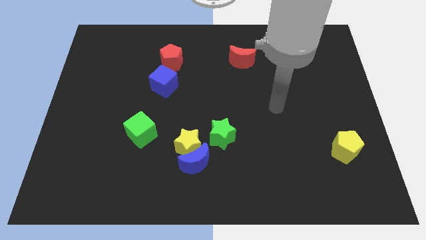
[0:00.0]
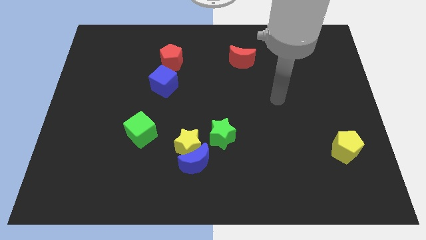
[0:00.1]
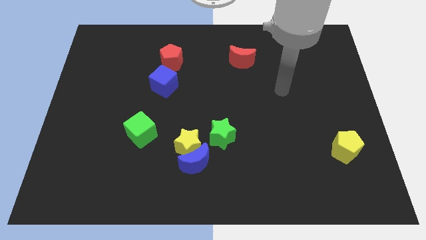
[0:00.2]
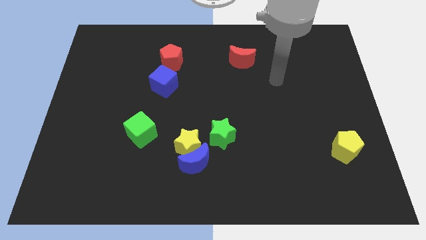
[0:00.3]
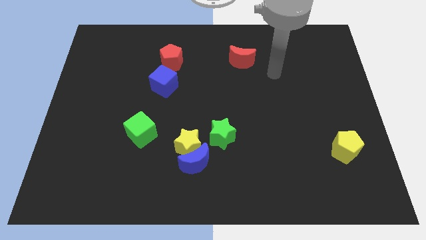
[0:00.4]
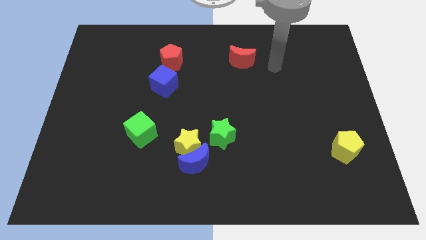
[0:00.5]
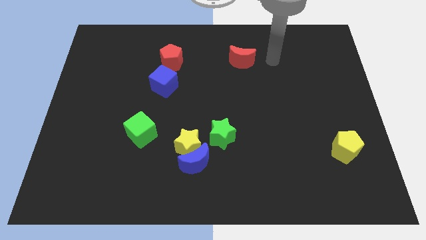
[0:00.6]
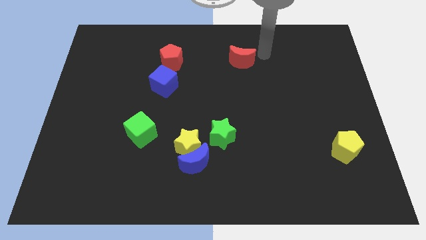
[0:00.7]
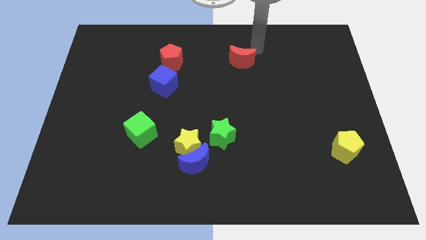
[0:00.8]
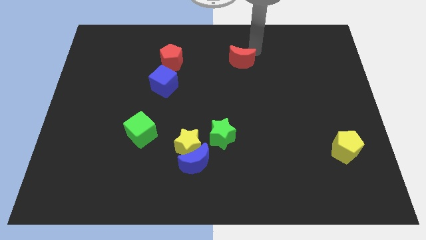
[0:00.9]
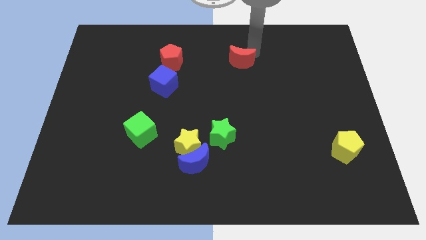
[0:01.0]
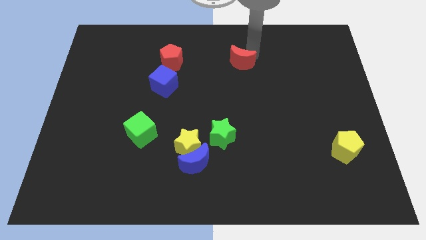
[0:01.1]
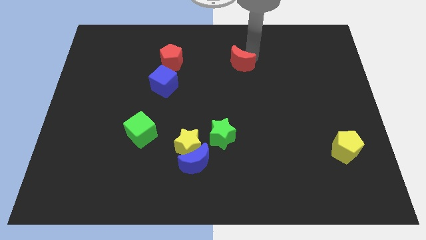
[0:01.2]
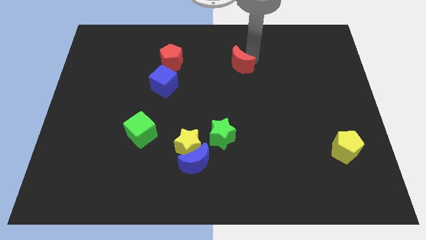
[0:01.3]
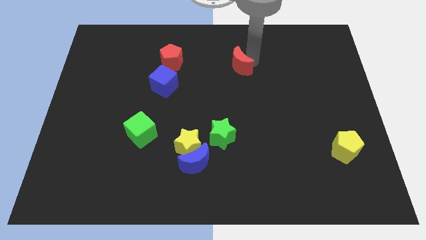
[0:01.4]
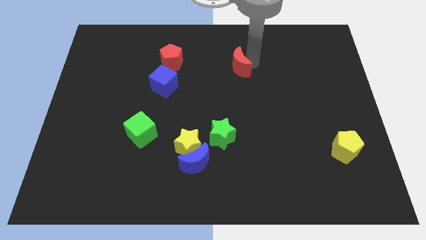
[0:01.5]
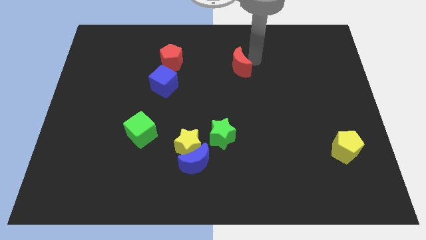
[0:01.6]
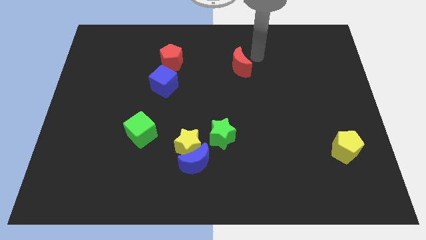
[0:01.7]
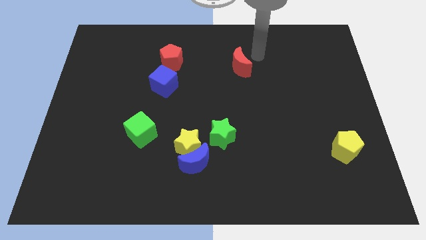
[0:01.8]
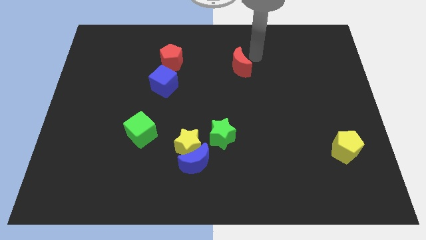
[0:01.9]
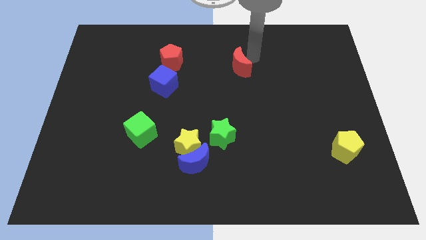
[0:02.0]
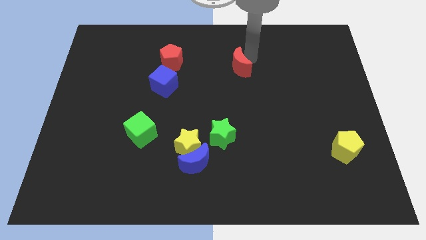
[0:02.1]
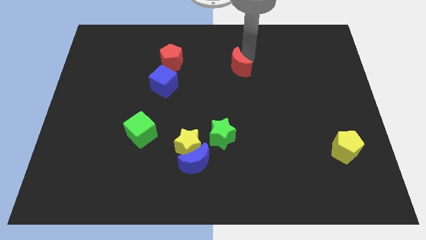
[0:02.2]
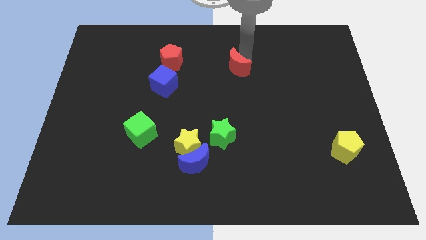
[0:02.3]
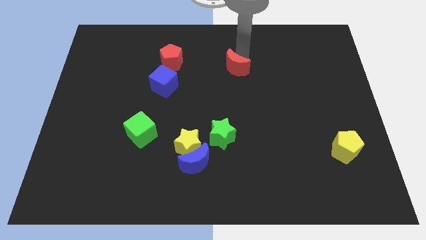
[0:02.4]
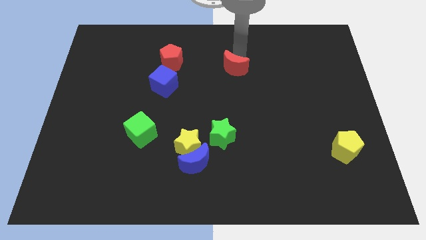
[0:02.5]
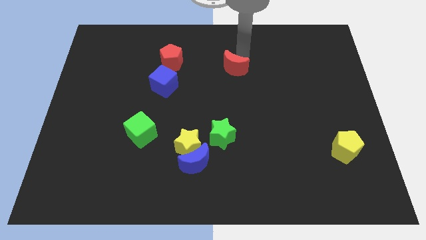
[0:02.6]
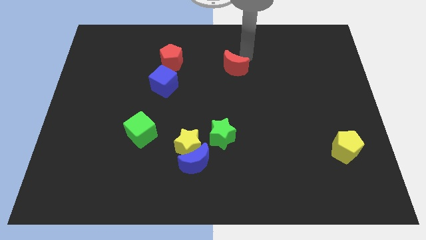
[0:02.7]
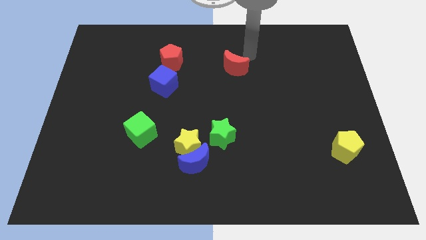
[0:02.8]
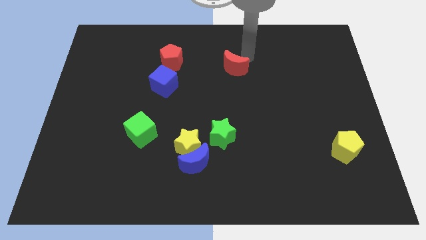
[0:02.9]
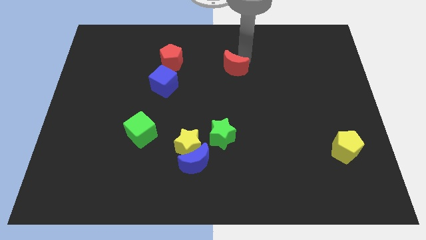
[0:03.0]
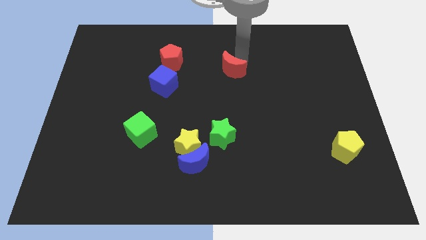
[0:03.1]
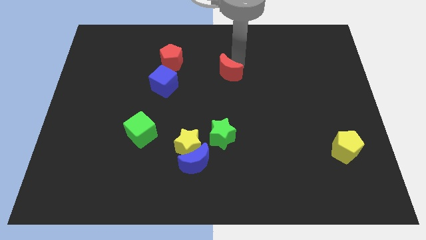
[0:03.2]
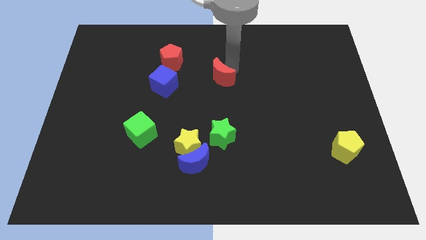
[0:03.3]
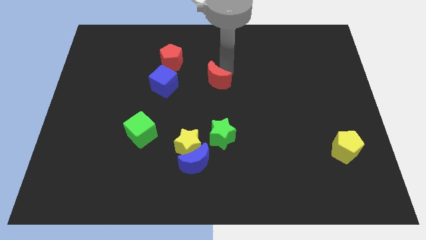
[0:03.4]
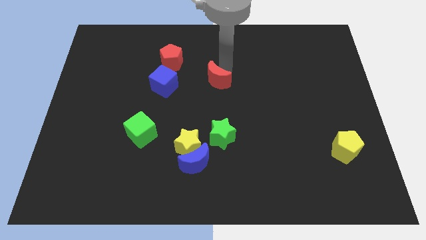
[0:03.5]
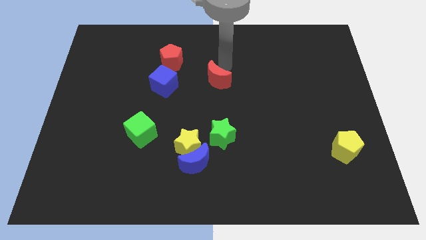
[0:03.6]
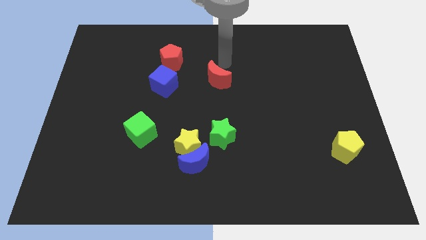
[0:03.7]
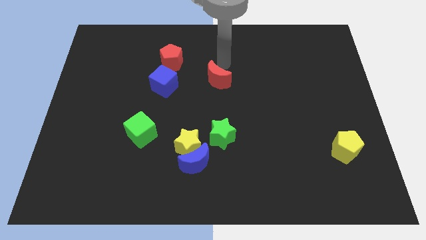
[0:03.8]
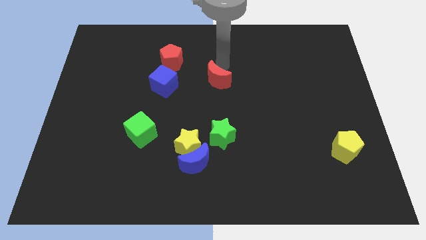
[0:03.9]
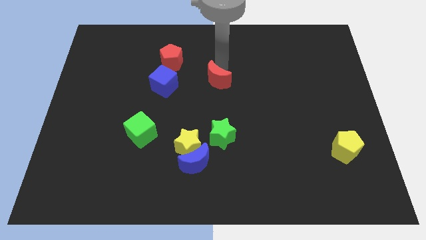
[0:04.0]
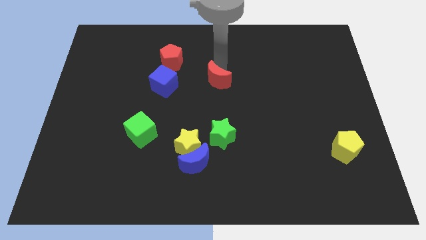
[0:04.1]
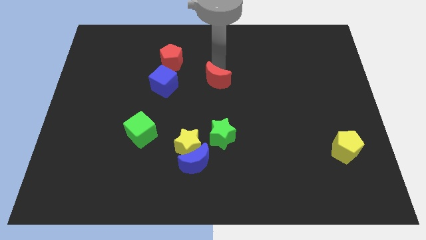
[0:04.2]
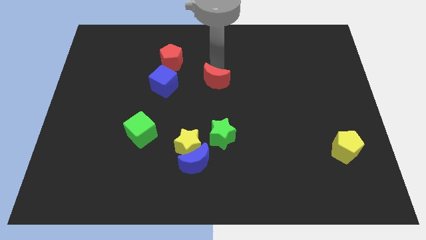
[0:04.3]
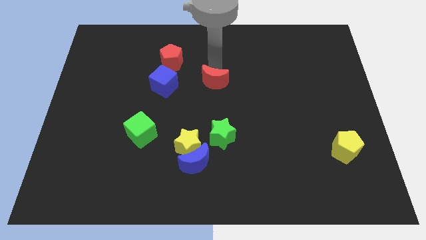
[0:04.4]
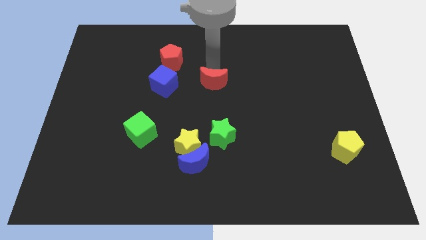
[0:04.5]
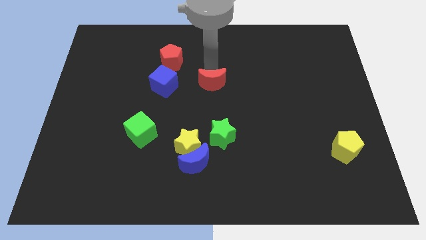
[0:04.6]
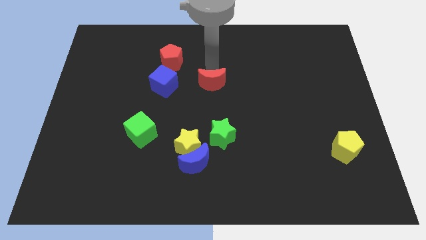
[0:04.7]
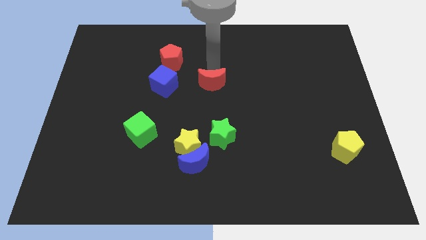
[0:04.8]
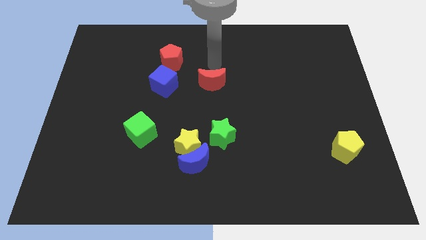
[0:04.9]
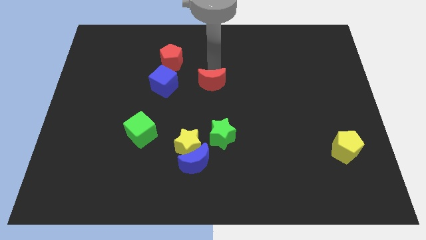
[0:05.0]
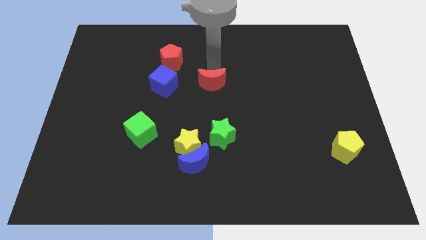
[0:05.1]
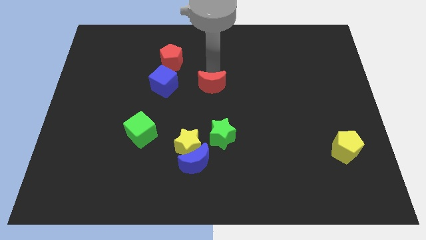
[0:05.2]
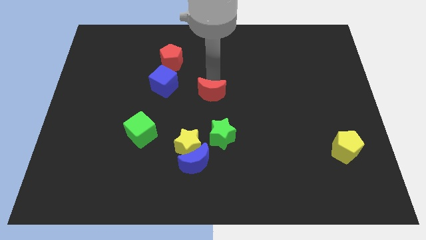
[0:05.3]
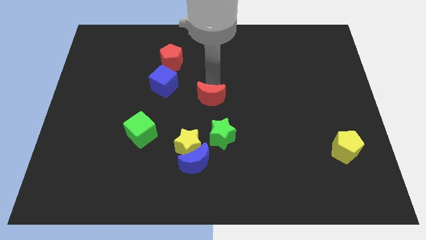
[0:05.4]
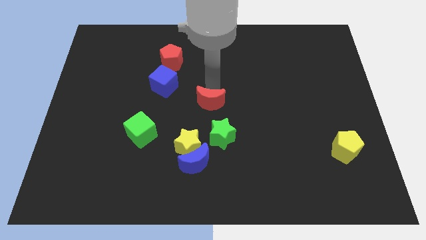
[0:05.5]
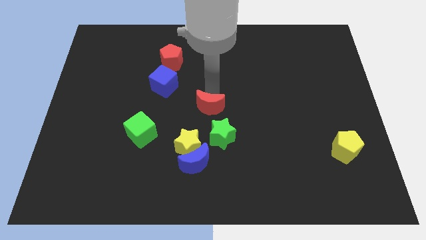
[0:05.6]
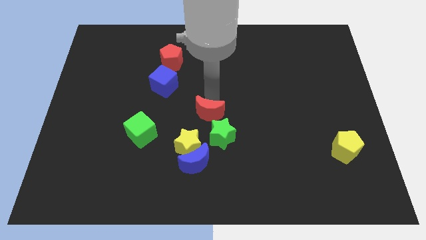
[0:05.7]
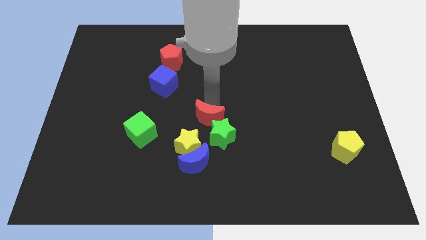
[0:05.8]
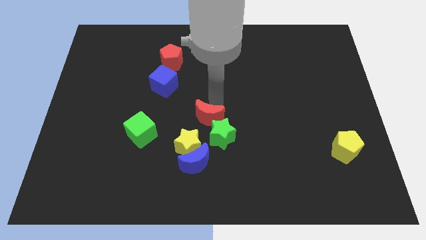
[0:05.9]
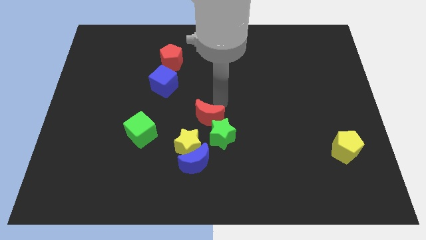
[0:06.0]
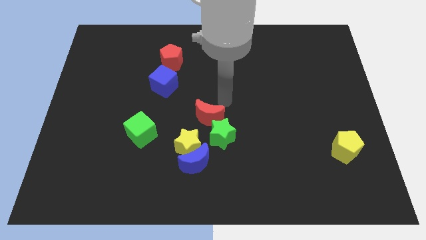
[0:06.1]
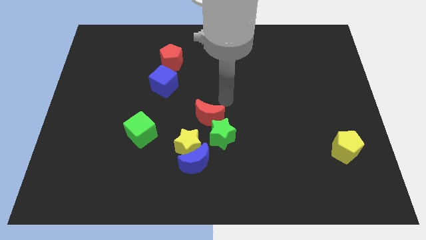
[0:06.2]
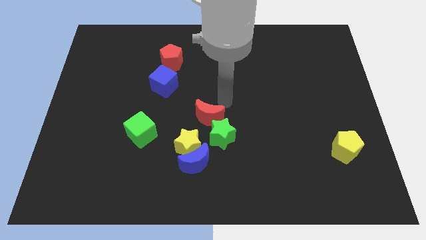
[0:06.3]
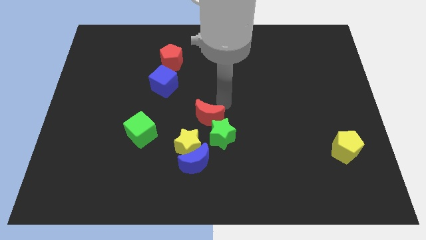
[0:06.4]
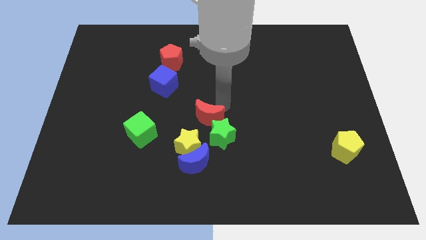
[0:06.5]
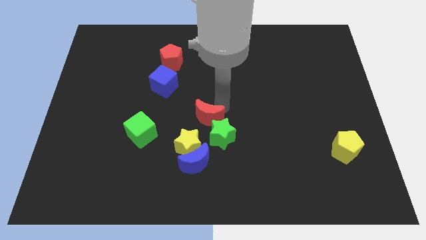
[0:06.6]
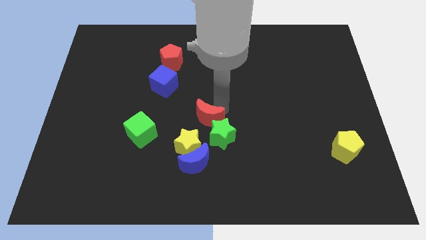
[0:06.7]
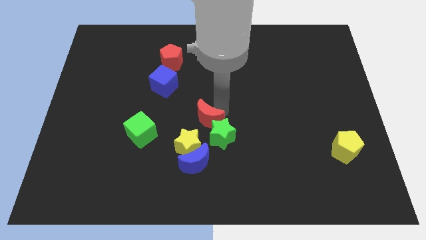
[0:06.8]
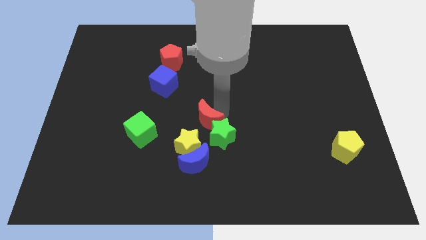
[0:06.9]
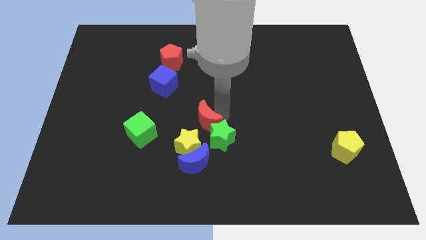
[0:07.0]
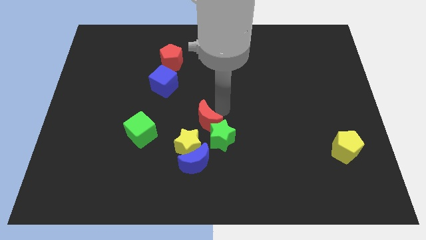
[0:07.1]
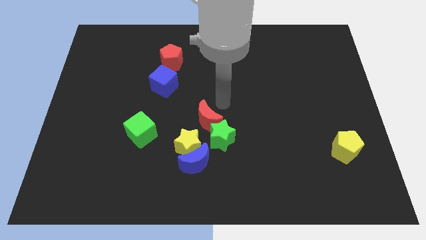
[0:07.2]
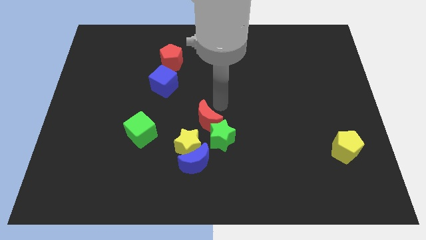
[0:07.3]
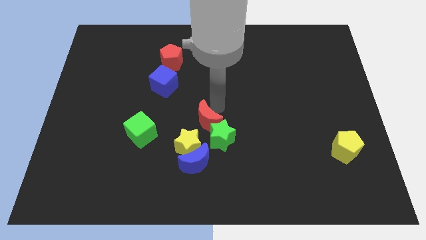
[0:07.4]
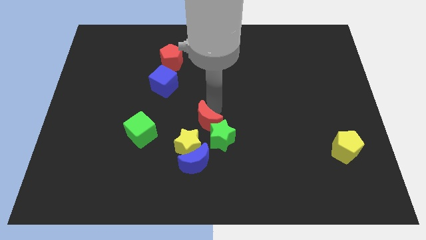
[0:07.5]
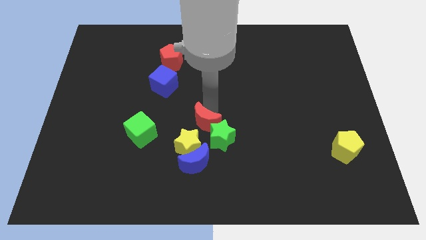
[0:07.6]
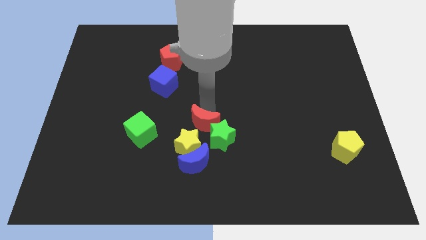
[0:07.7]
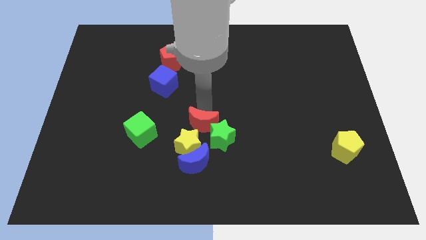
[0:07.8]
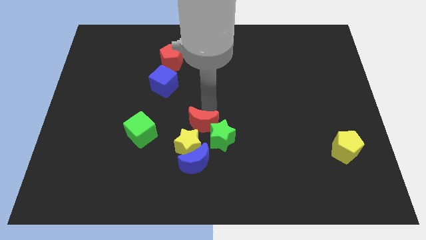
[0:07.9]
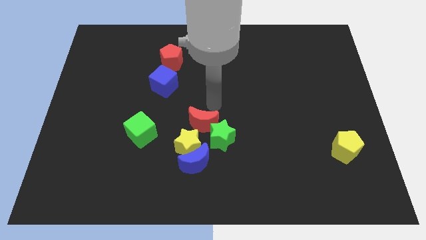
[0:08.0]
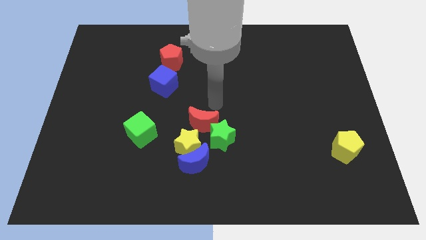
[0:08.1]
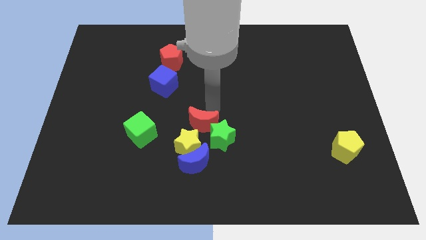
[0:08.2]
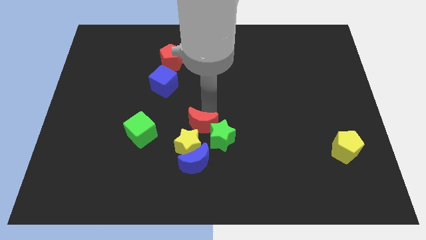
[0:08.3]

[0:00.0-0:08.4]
slide the red moon to the yellow star
